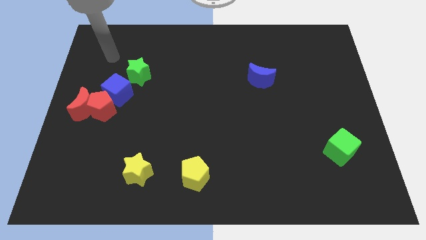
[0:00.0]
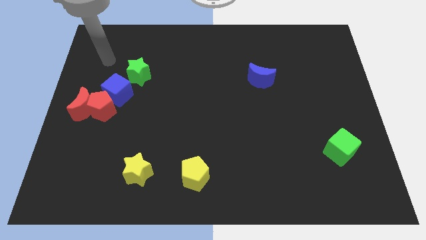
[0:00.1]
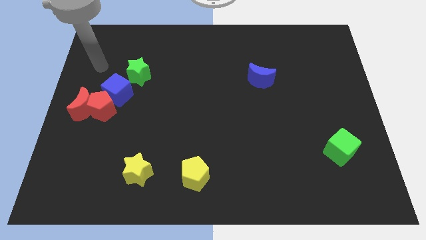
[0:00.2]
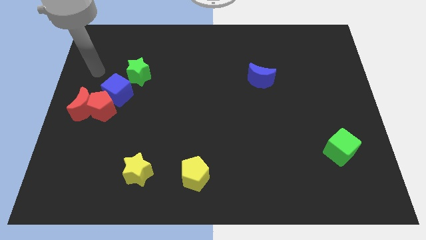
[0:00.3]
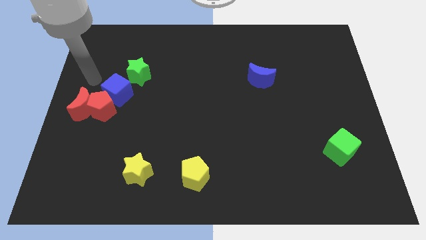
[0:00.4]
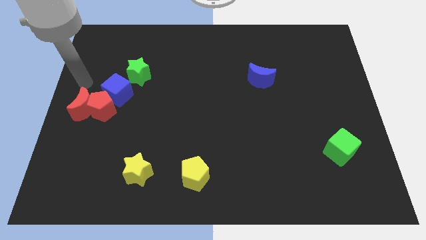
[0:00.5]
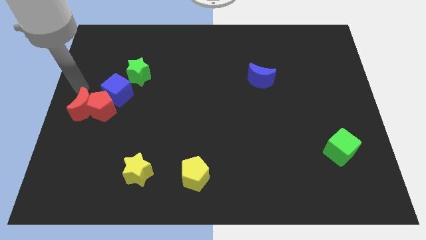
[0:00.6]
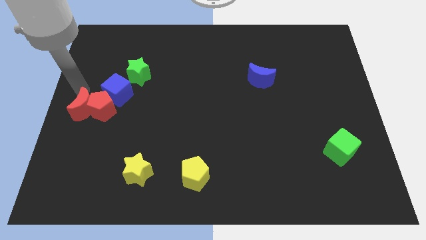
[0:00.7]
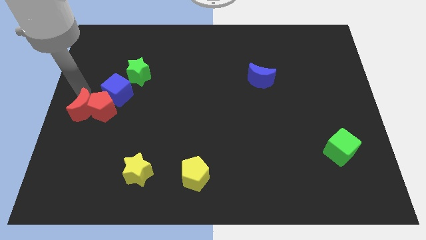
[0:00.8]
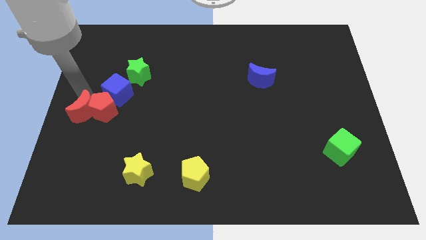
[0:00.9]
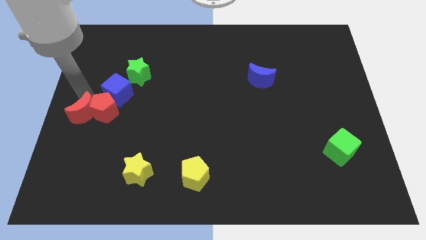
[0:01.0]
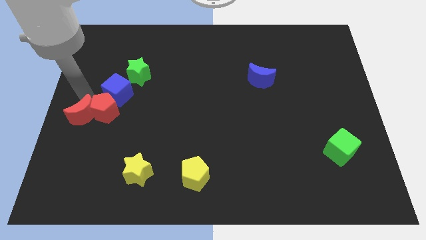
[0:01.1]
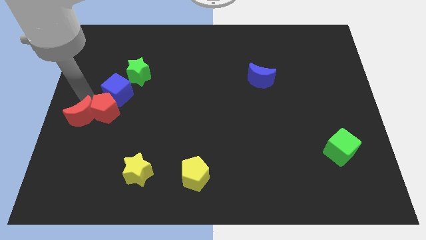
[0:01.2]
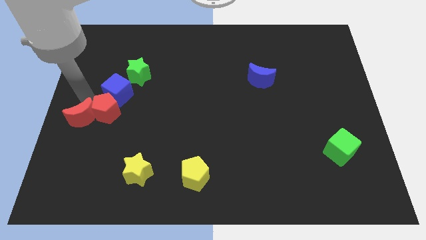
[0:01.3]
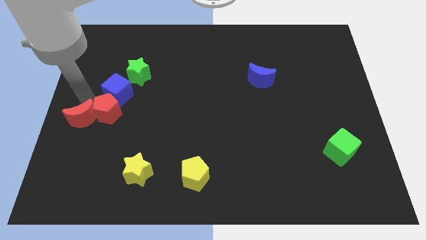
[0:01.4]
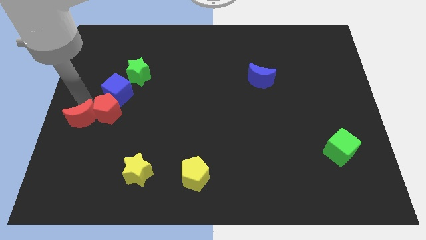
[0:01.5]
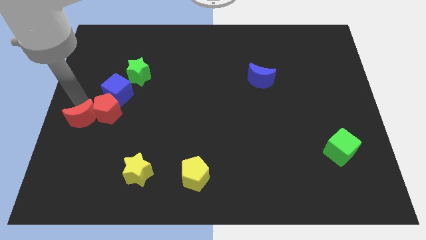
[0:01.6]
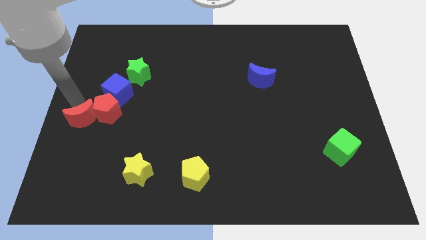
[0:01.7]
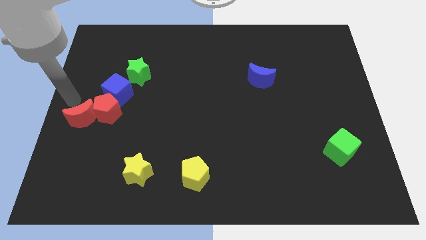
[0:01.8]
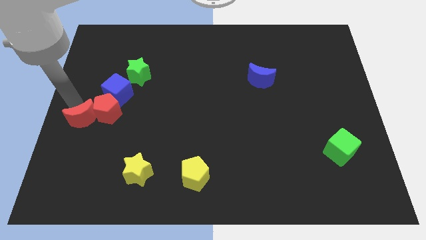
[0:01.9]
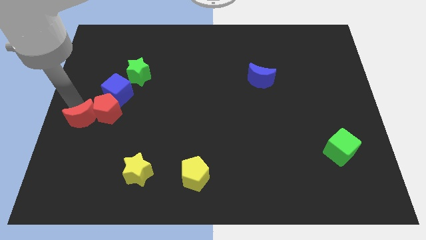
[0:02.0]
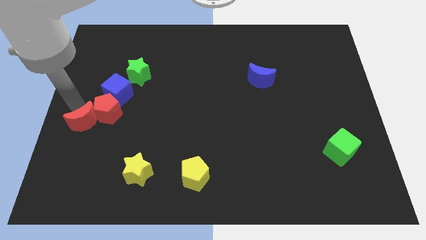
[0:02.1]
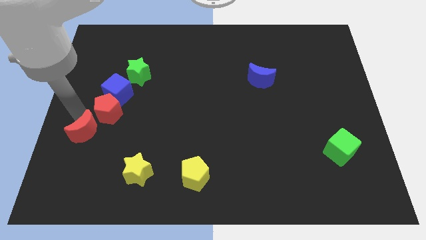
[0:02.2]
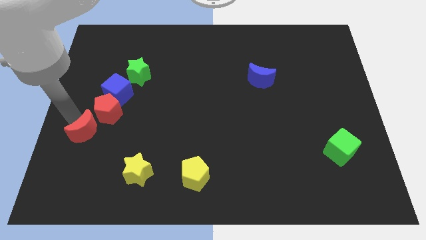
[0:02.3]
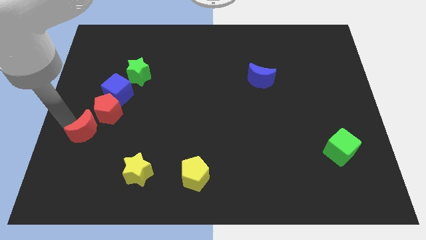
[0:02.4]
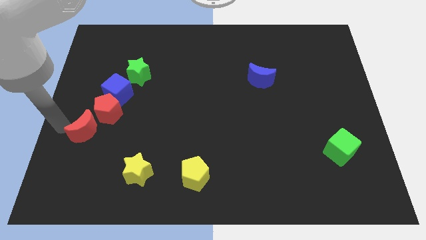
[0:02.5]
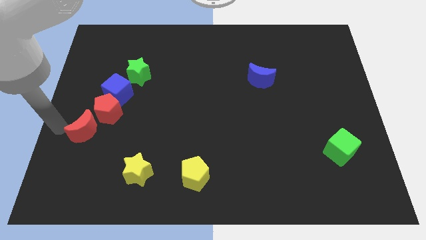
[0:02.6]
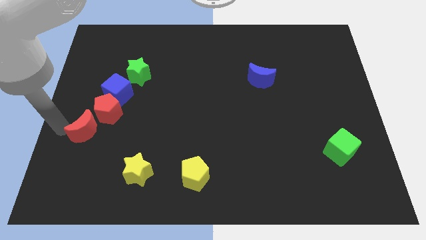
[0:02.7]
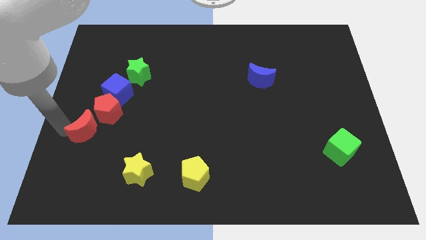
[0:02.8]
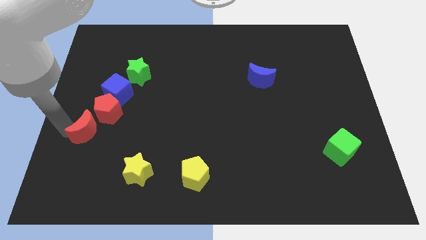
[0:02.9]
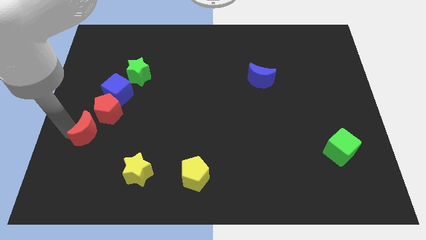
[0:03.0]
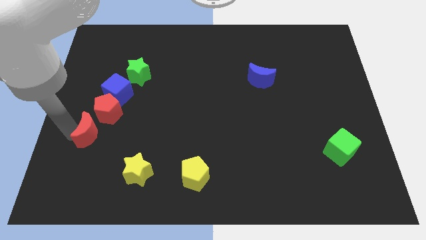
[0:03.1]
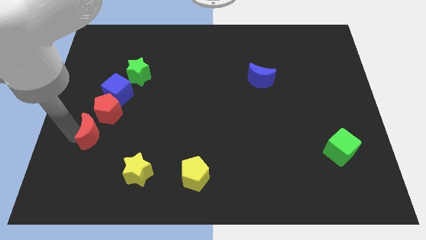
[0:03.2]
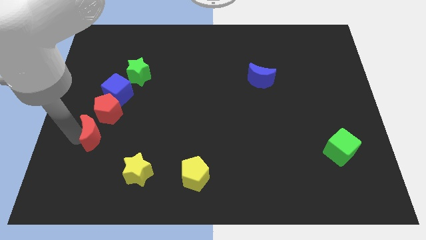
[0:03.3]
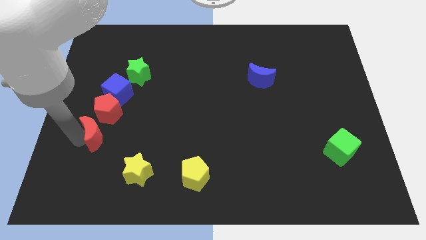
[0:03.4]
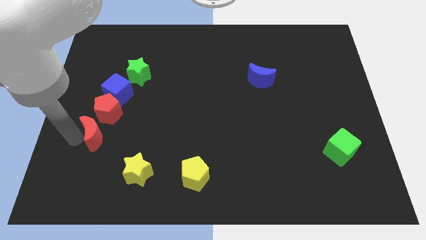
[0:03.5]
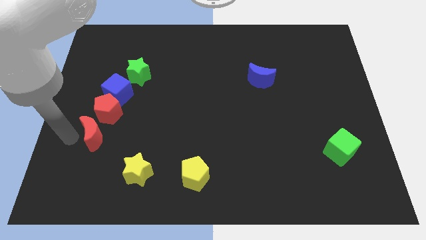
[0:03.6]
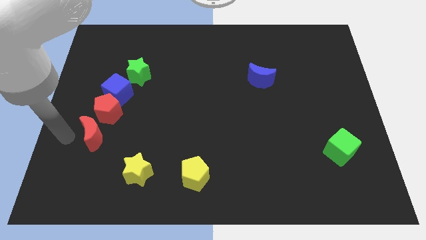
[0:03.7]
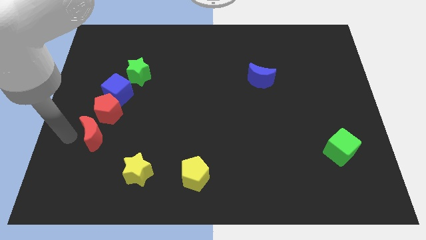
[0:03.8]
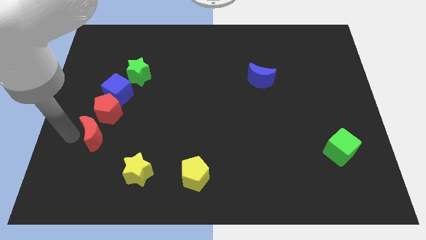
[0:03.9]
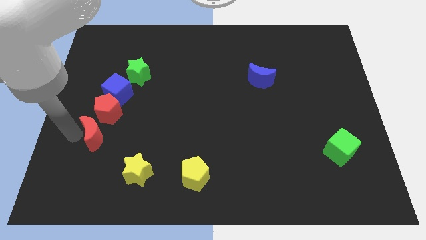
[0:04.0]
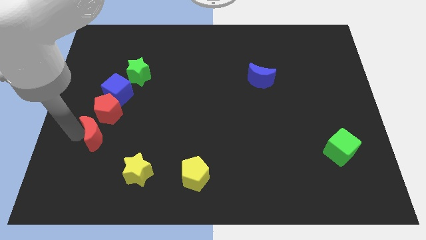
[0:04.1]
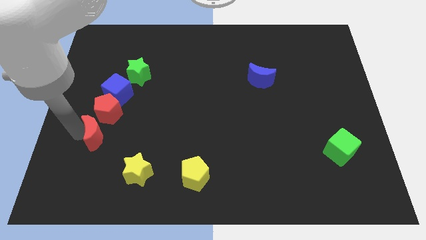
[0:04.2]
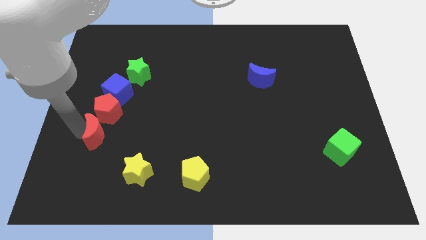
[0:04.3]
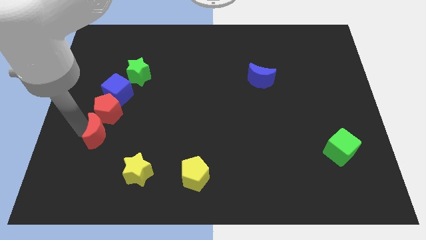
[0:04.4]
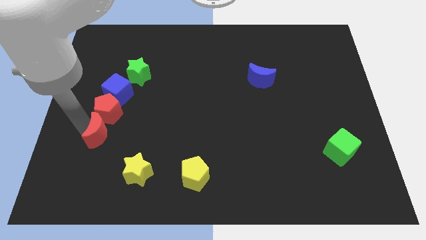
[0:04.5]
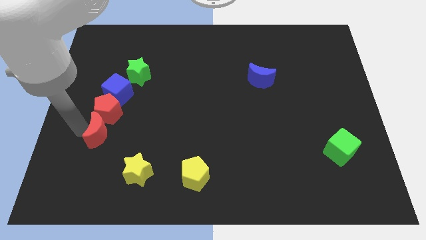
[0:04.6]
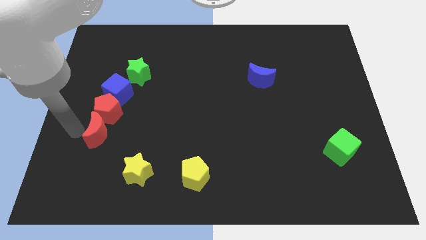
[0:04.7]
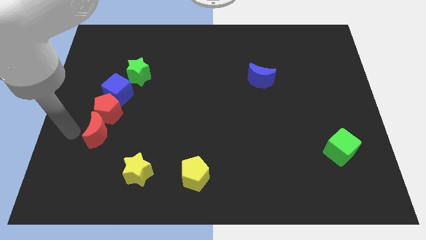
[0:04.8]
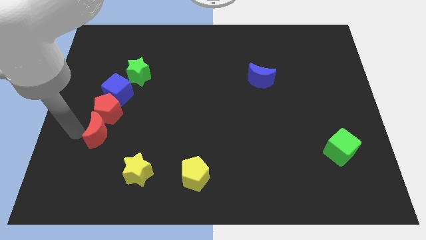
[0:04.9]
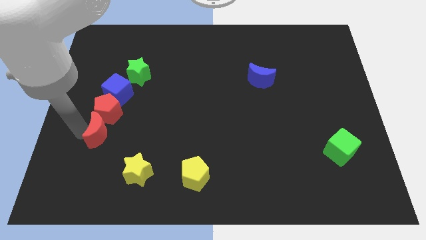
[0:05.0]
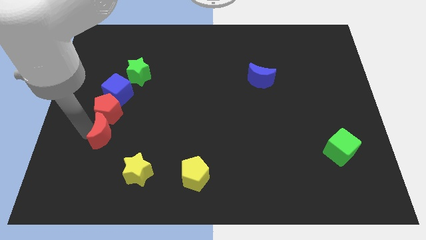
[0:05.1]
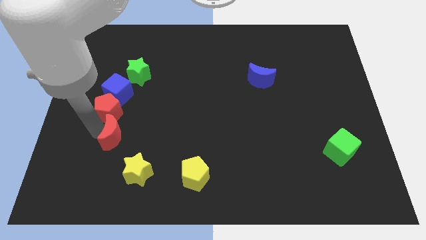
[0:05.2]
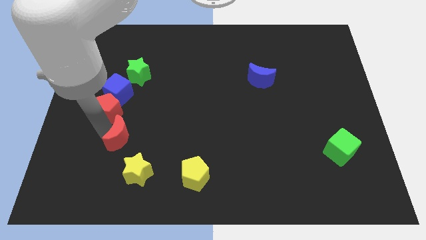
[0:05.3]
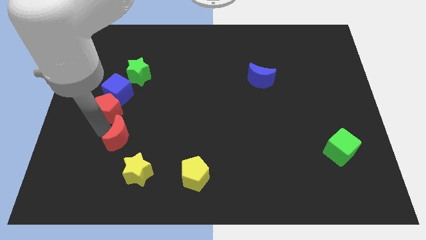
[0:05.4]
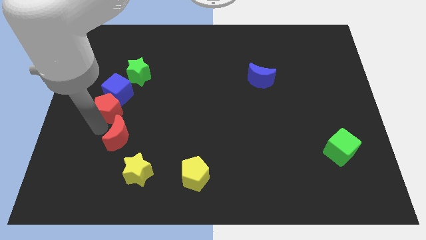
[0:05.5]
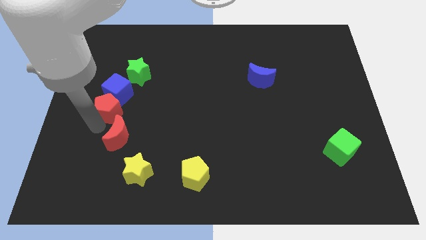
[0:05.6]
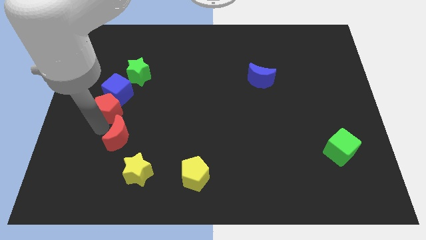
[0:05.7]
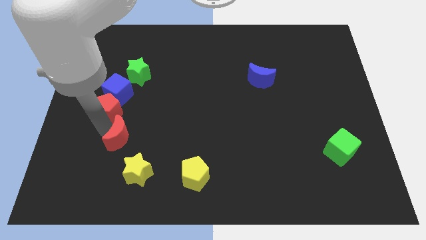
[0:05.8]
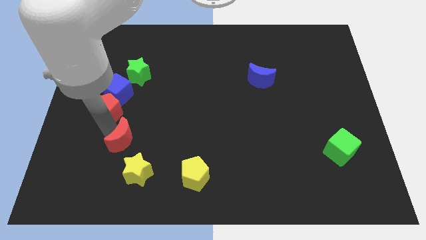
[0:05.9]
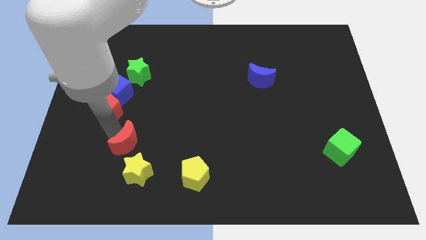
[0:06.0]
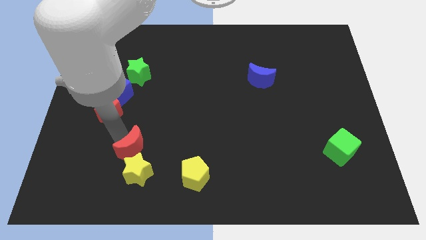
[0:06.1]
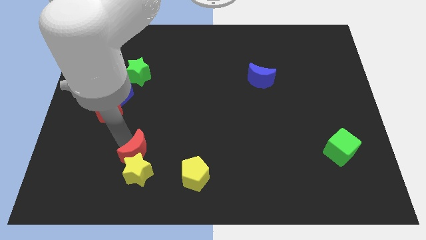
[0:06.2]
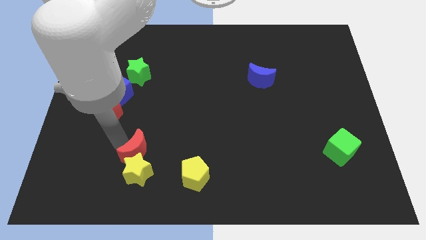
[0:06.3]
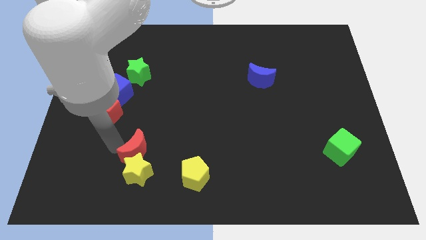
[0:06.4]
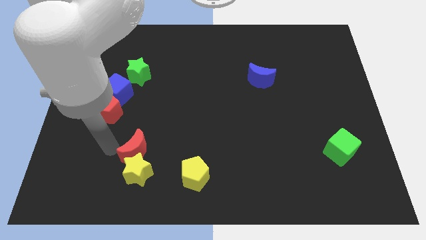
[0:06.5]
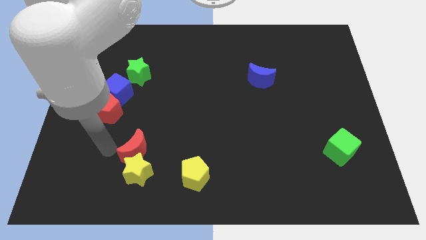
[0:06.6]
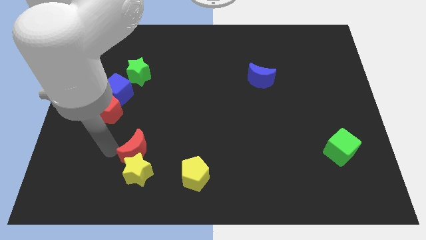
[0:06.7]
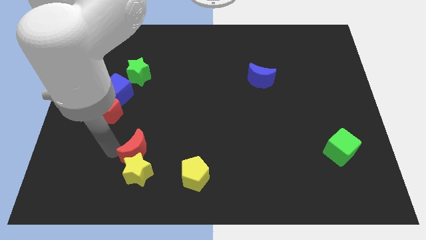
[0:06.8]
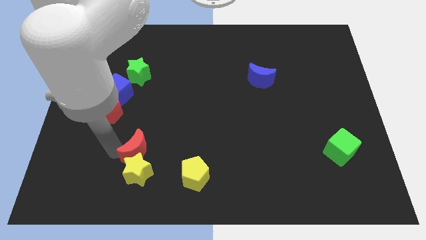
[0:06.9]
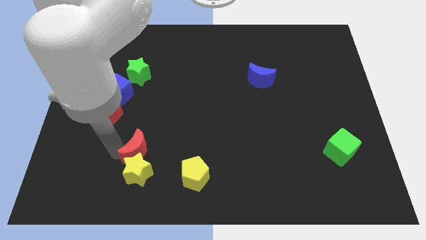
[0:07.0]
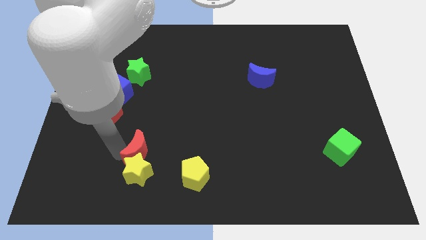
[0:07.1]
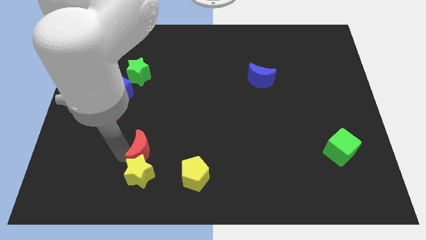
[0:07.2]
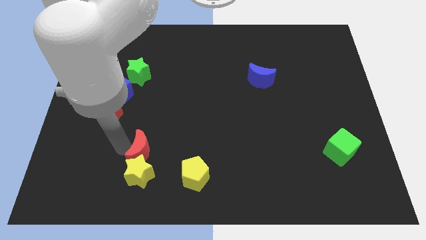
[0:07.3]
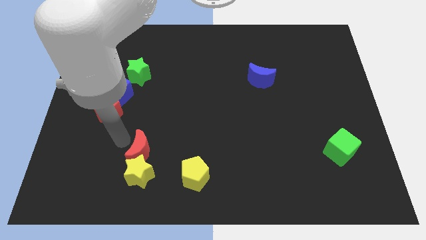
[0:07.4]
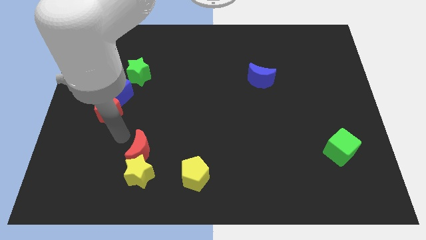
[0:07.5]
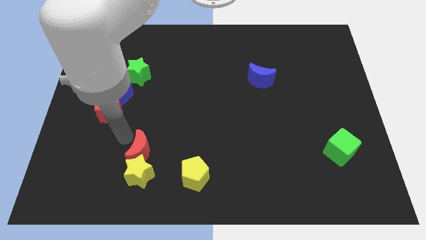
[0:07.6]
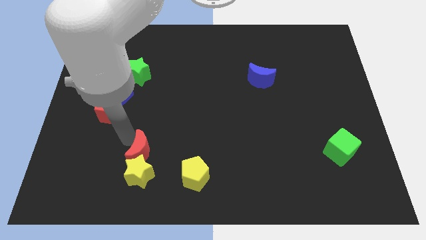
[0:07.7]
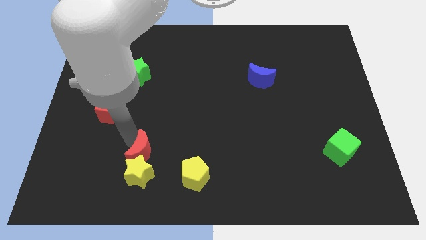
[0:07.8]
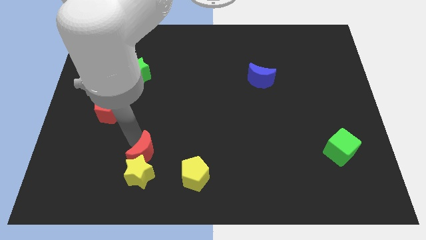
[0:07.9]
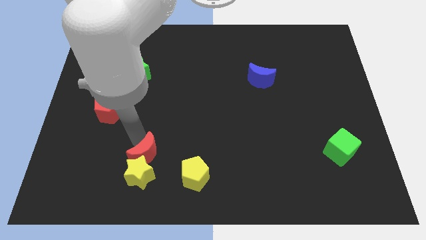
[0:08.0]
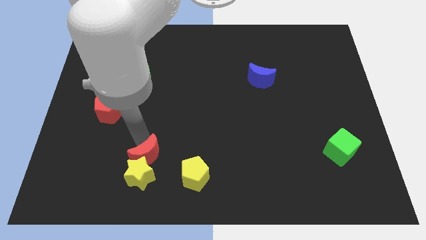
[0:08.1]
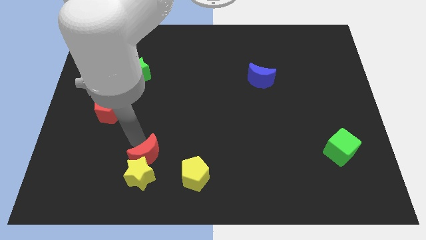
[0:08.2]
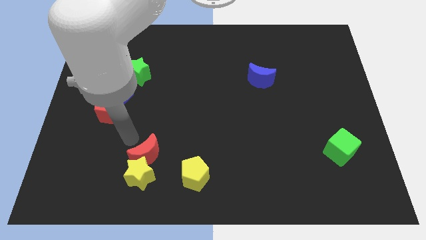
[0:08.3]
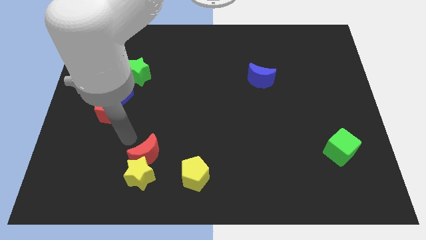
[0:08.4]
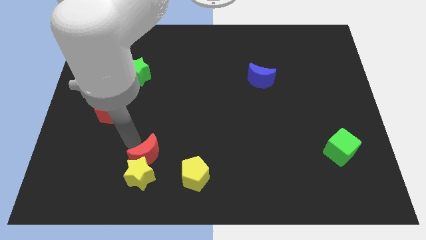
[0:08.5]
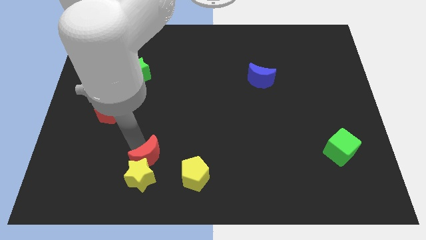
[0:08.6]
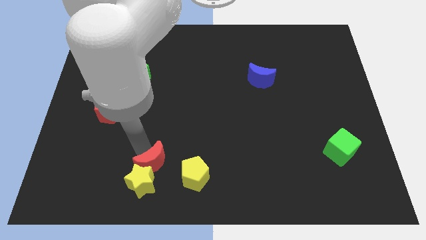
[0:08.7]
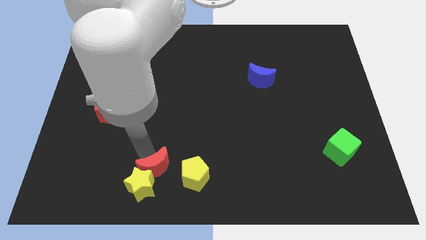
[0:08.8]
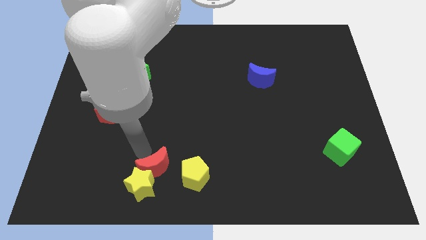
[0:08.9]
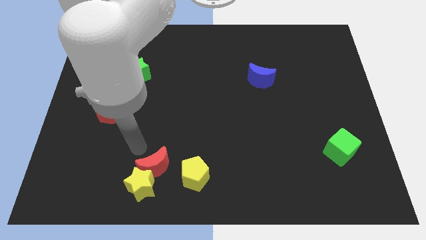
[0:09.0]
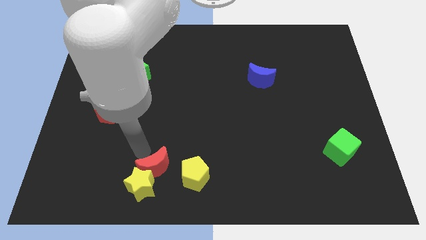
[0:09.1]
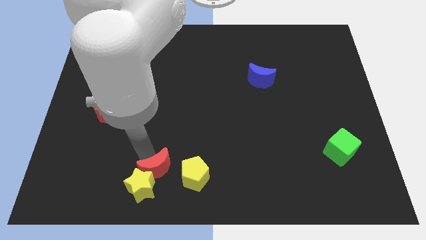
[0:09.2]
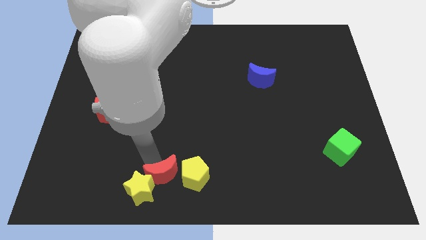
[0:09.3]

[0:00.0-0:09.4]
push the red moon to the bottom
